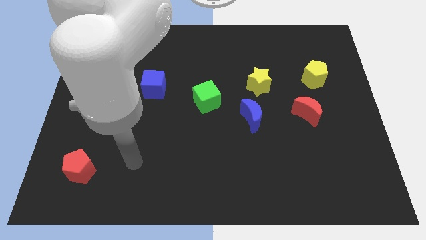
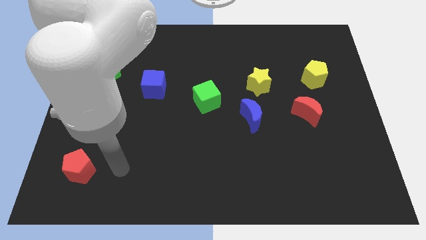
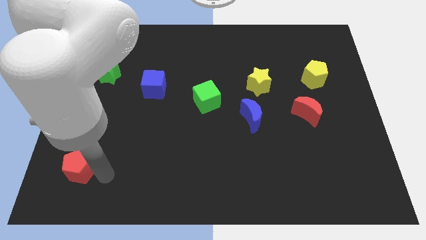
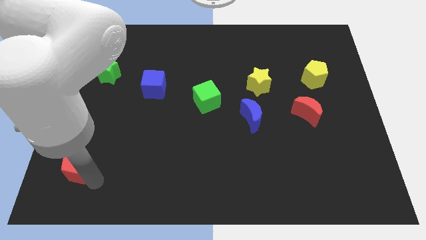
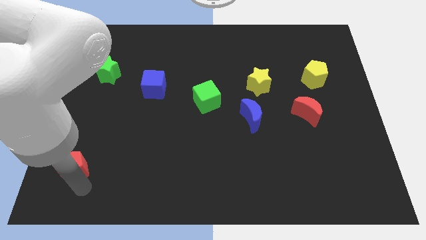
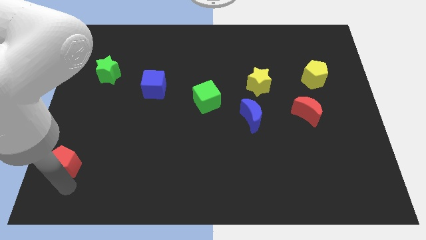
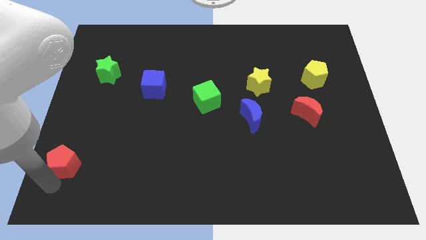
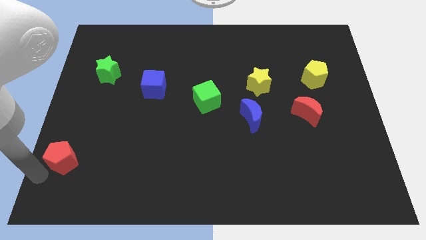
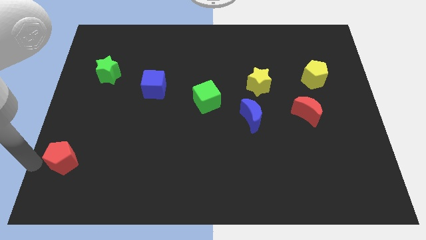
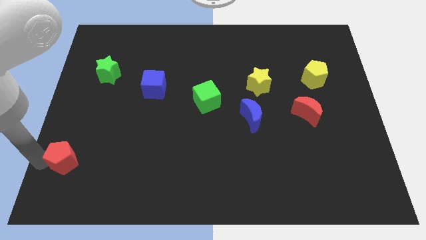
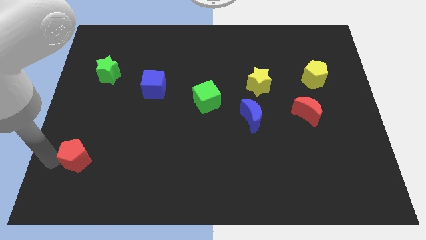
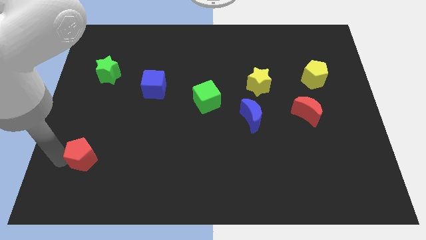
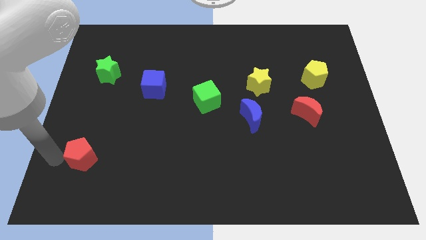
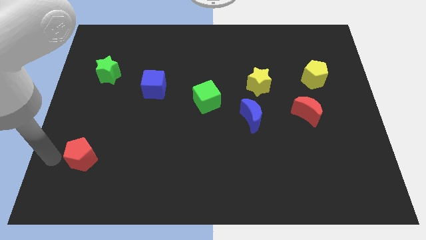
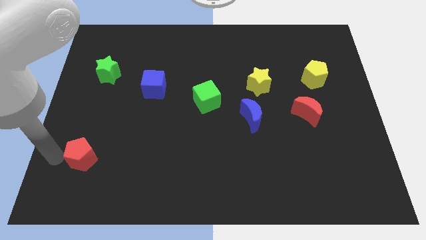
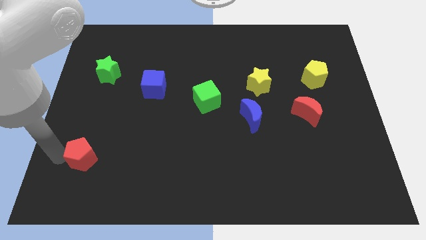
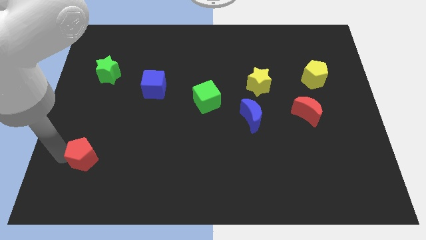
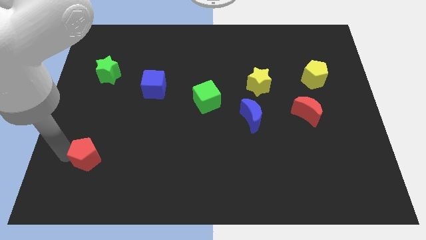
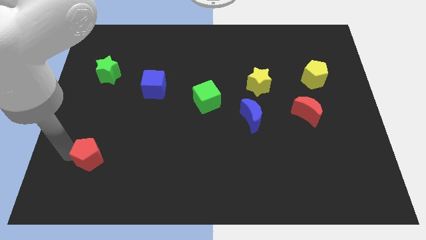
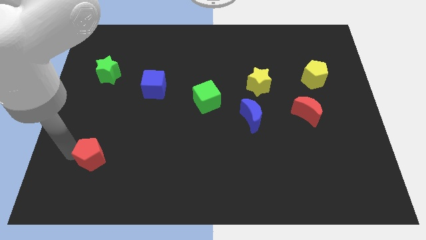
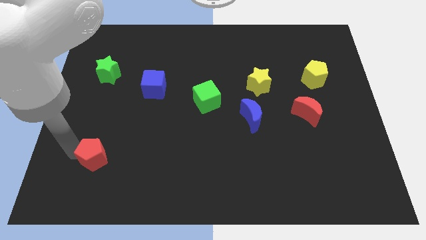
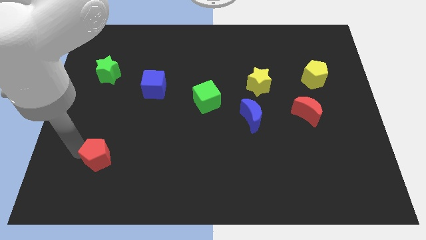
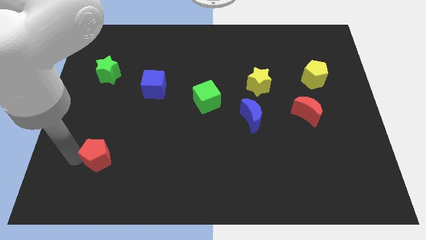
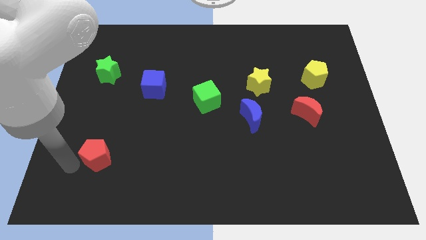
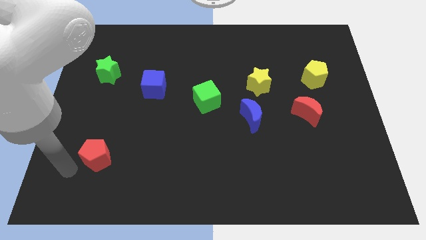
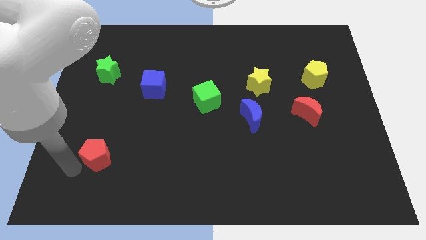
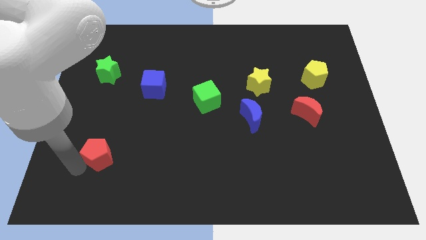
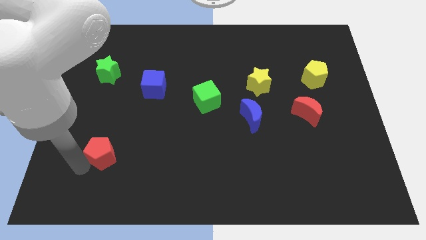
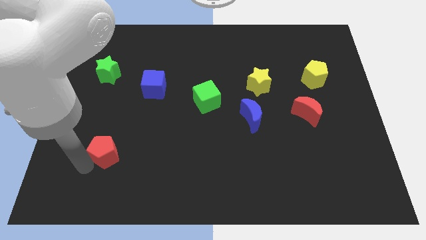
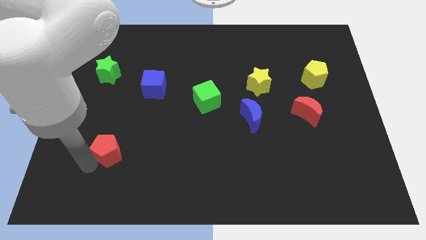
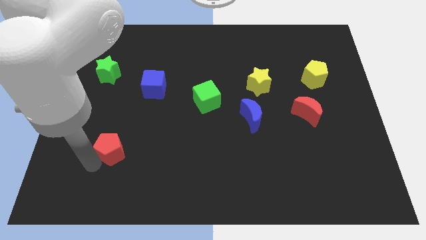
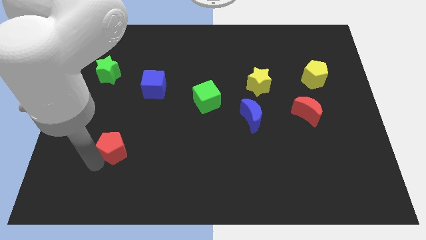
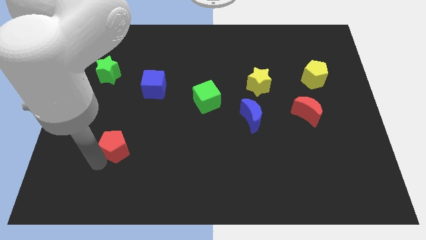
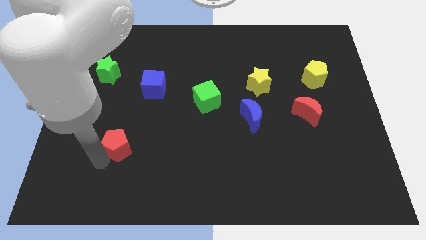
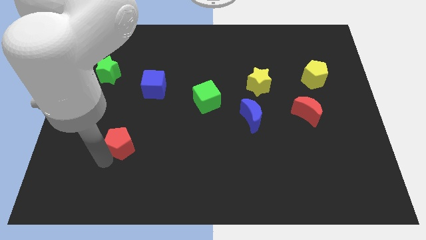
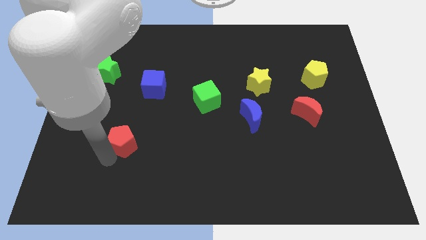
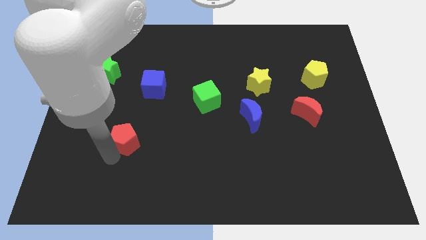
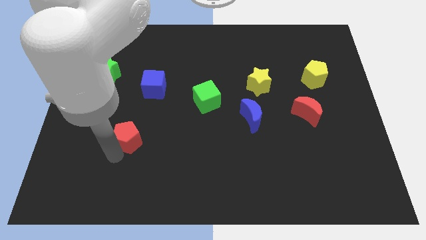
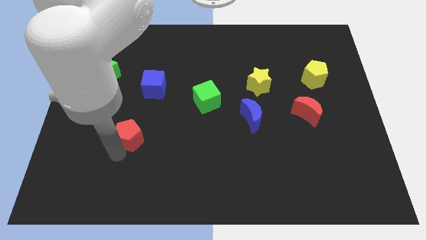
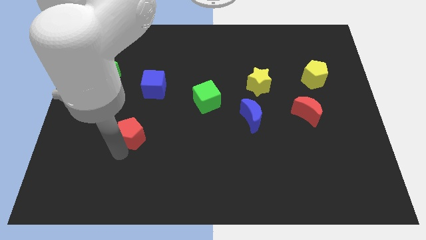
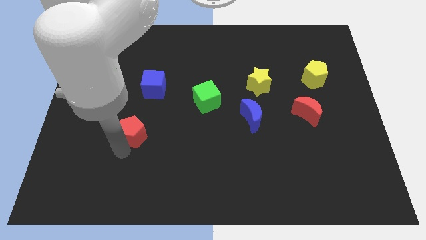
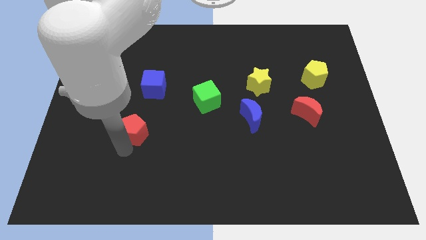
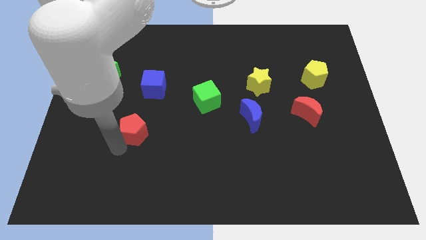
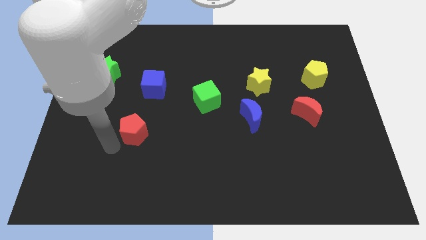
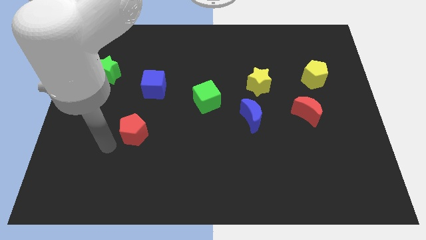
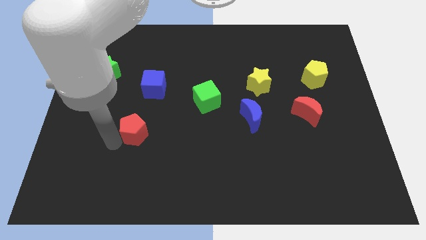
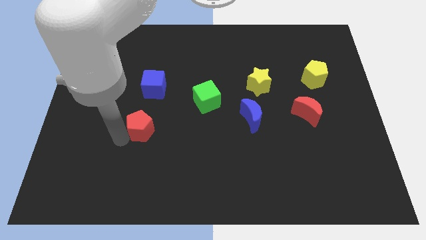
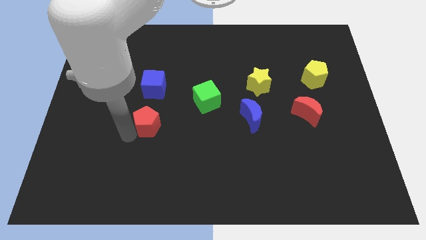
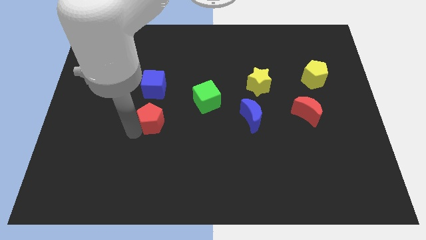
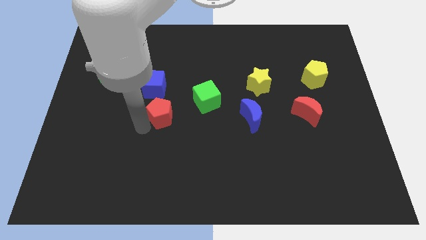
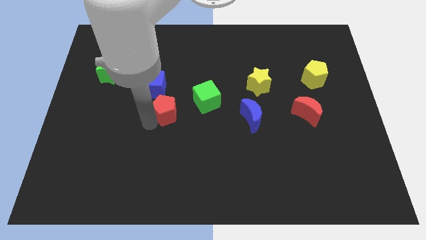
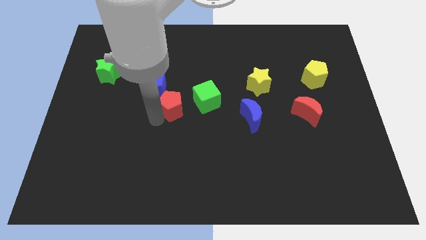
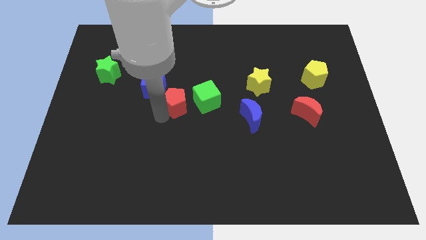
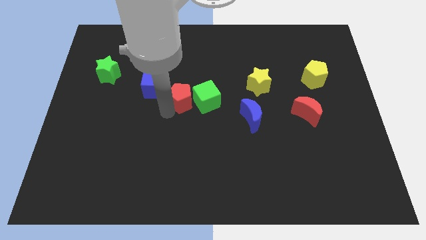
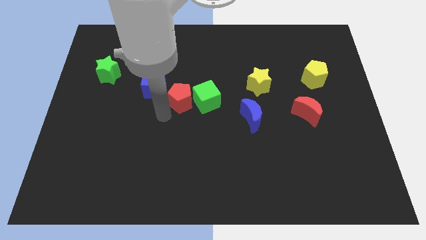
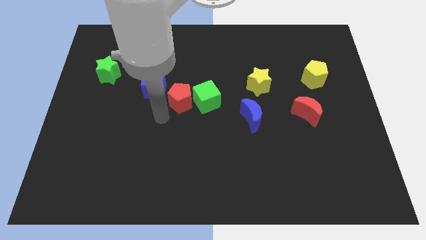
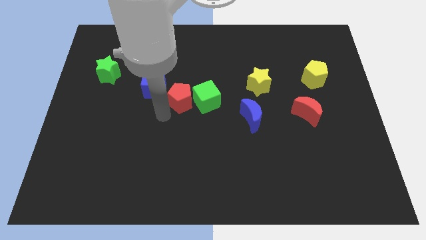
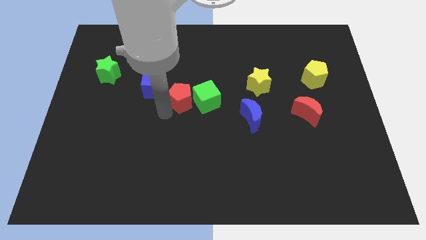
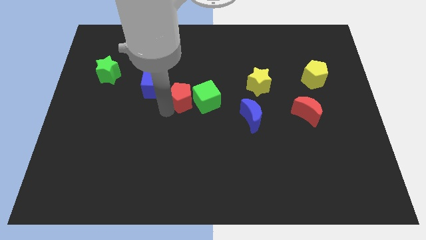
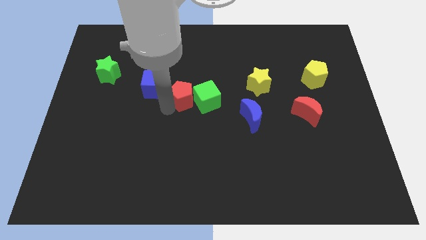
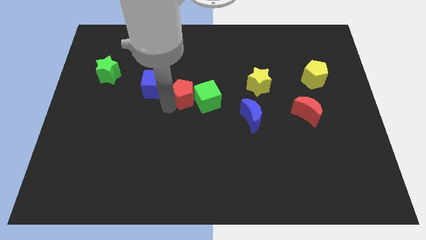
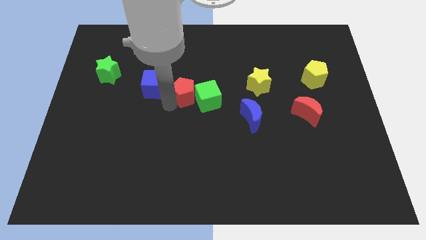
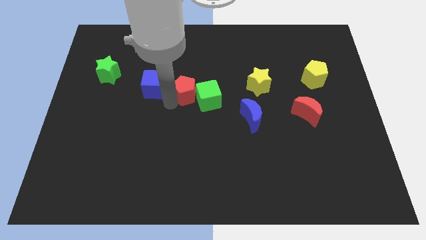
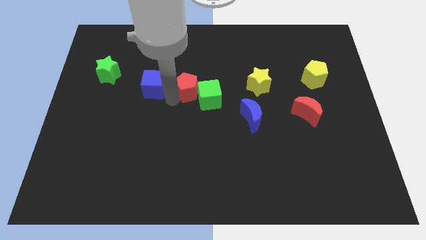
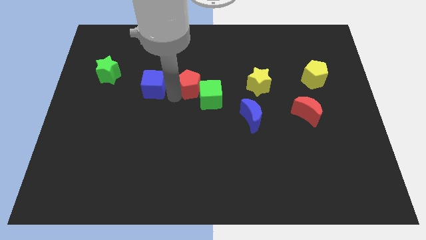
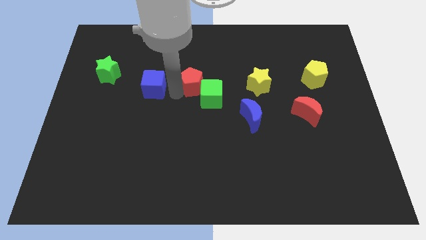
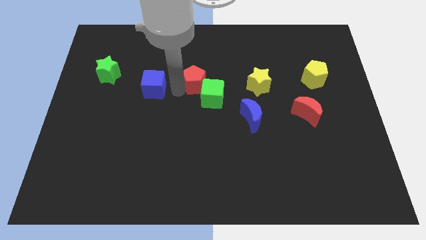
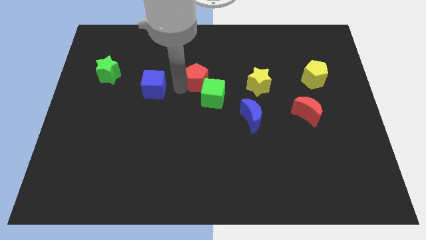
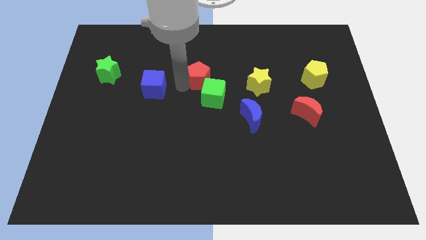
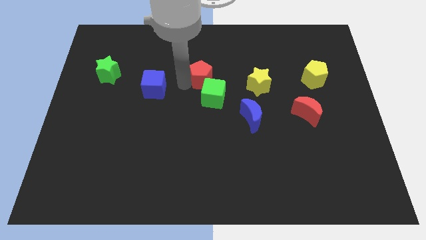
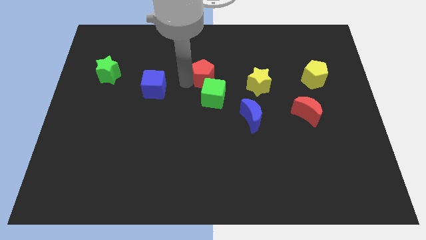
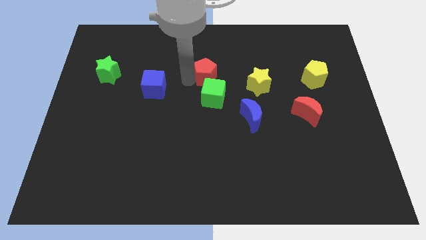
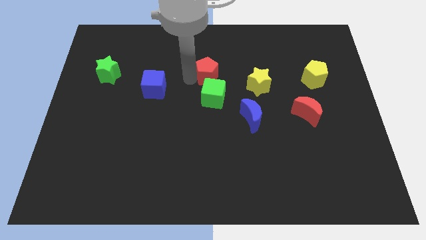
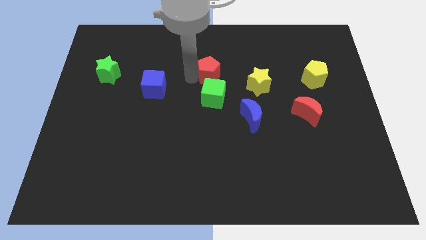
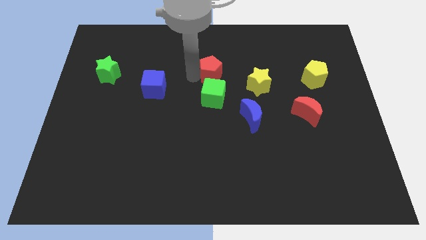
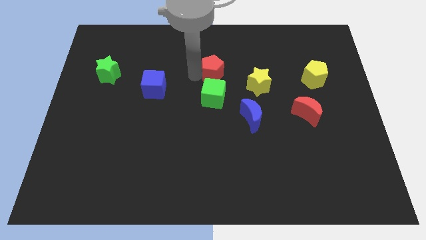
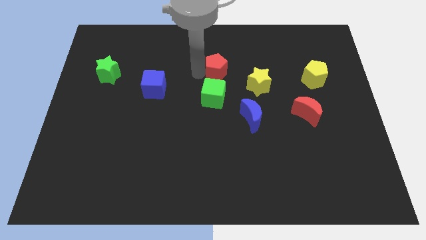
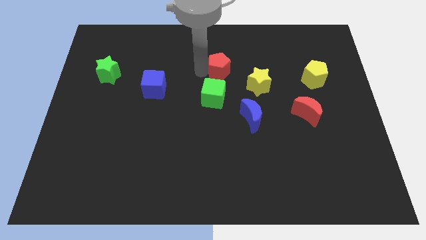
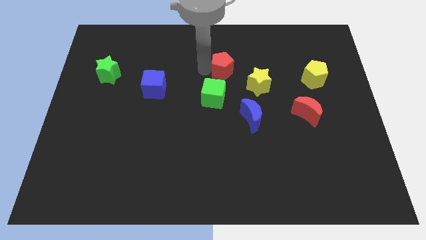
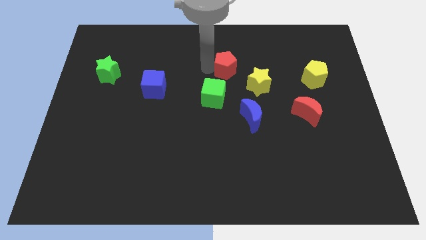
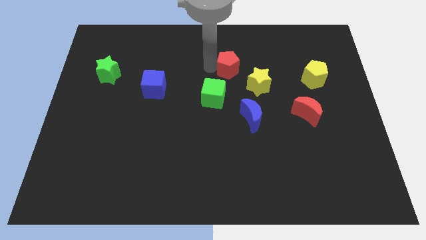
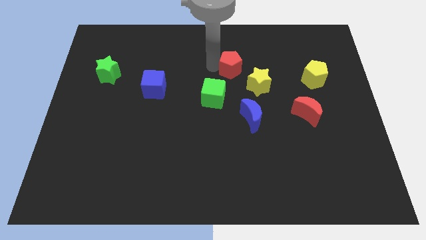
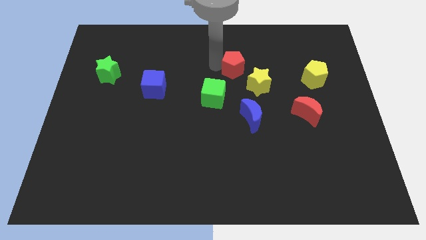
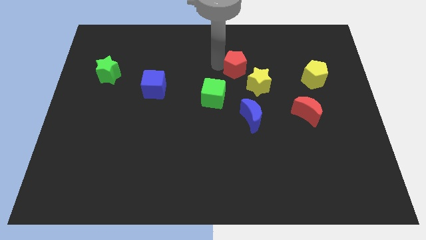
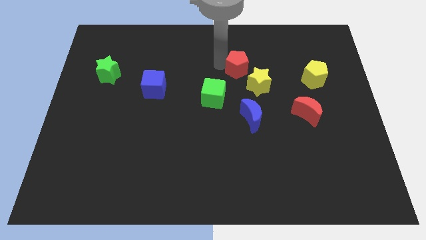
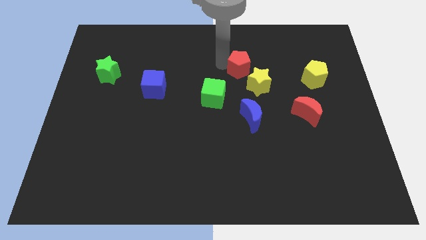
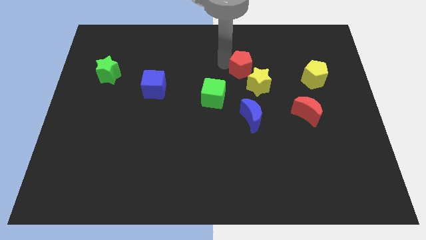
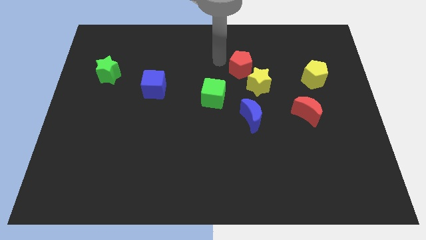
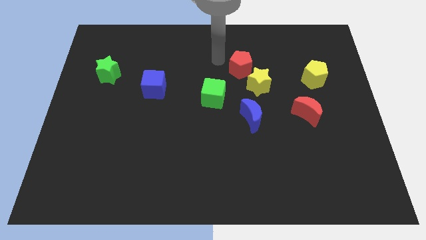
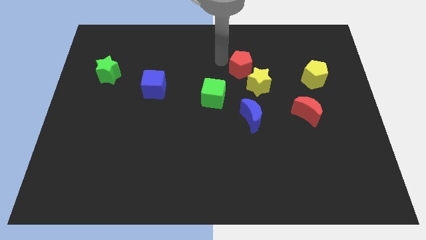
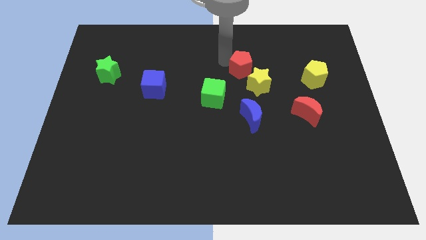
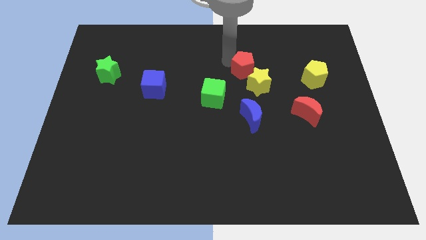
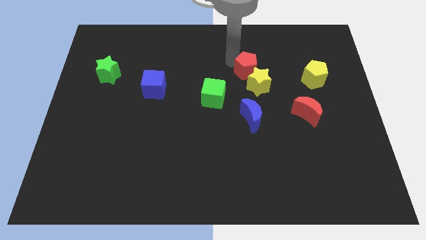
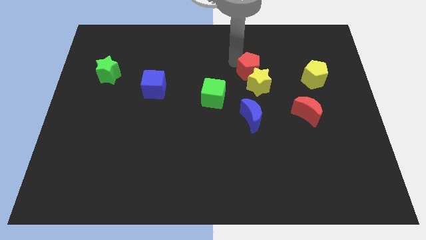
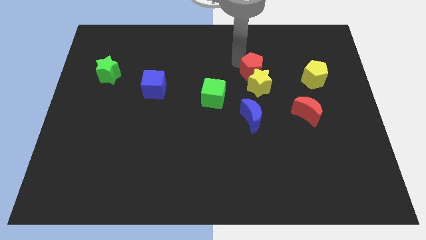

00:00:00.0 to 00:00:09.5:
push the red pentagon to the left side of the yellow pentagon
